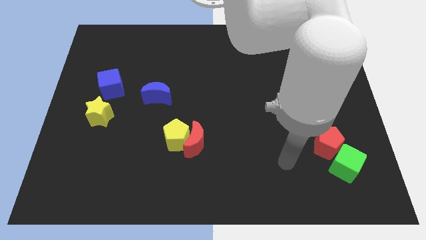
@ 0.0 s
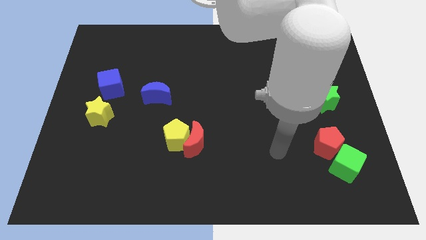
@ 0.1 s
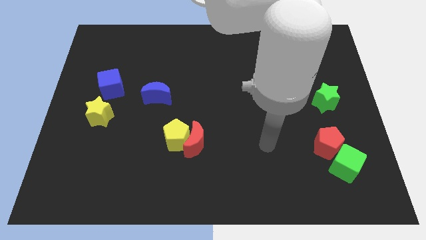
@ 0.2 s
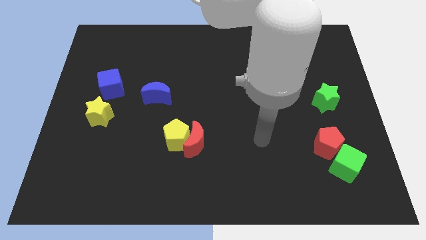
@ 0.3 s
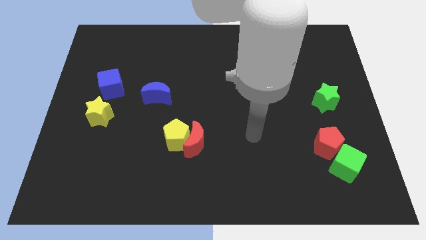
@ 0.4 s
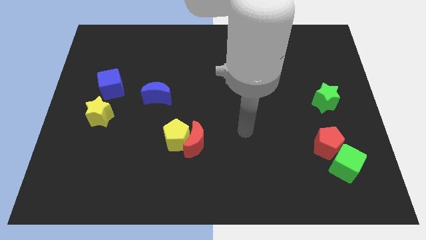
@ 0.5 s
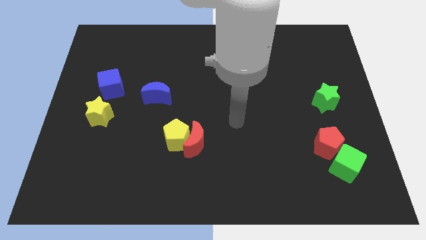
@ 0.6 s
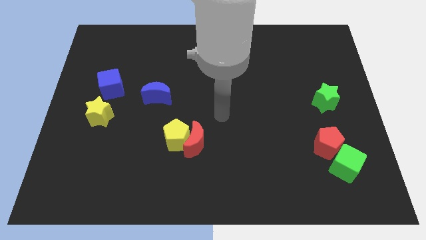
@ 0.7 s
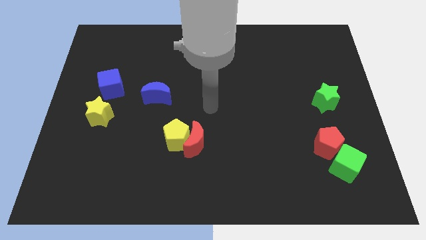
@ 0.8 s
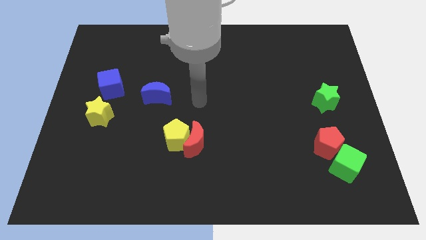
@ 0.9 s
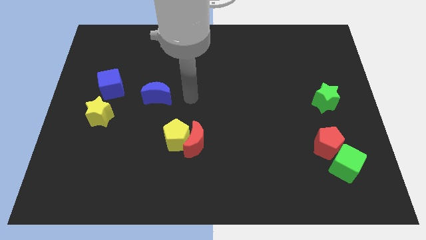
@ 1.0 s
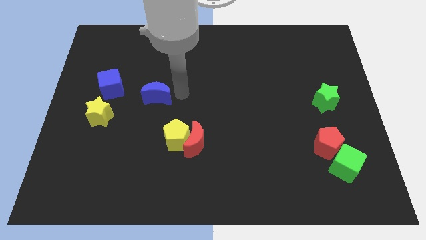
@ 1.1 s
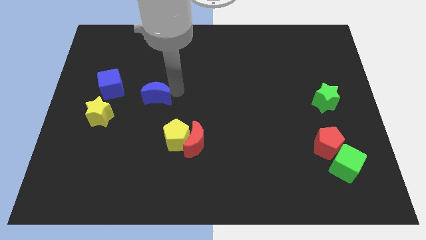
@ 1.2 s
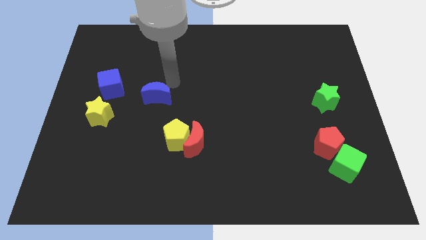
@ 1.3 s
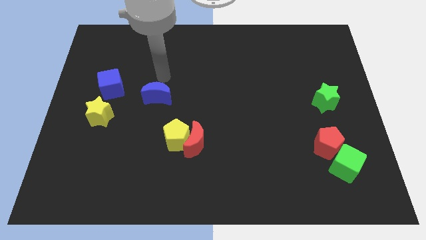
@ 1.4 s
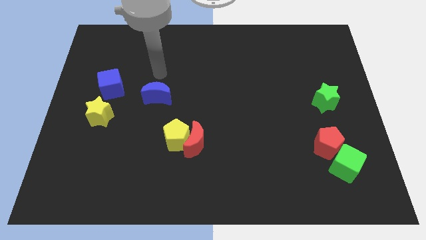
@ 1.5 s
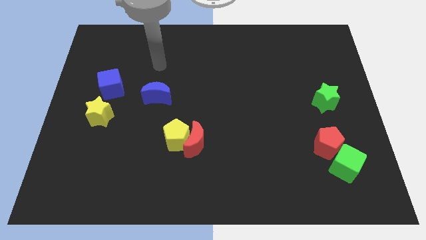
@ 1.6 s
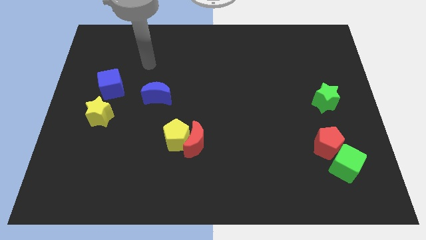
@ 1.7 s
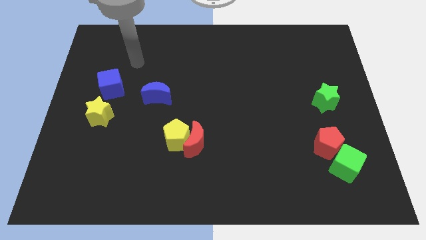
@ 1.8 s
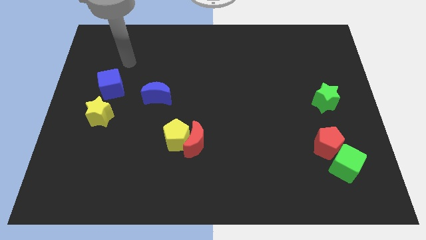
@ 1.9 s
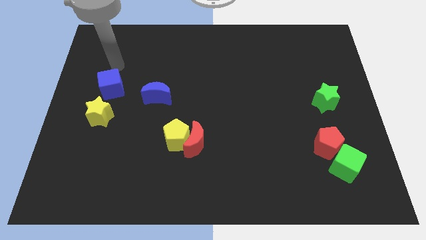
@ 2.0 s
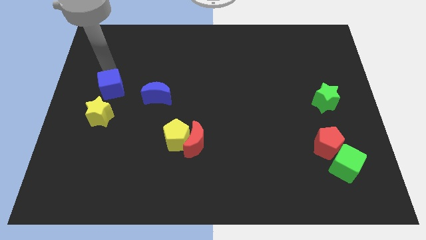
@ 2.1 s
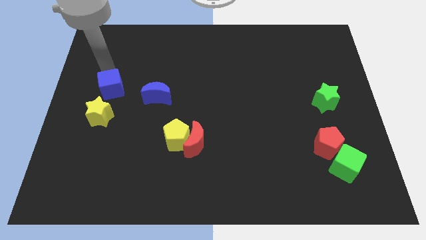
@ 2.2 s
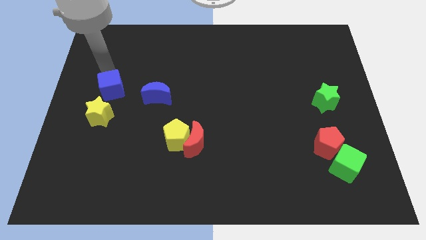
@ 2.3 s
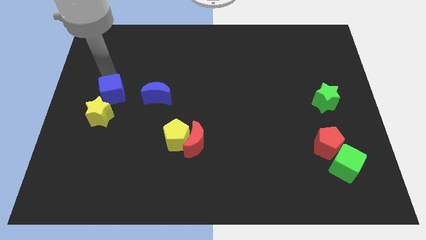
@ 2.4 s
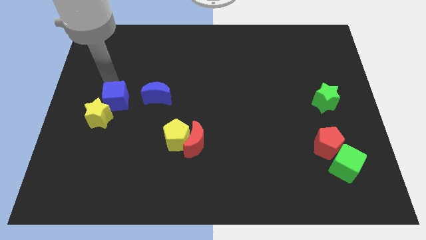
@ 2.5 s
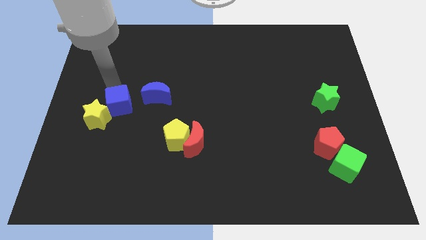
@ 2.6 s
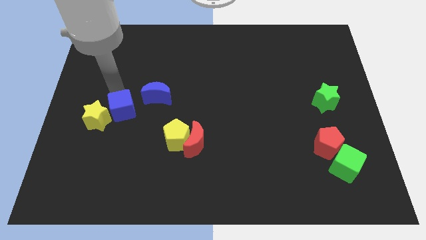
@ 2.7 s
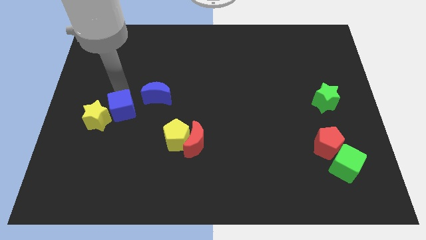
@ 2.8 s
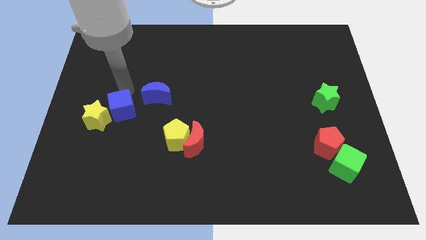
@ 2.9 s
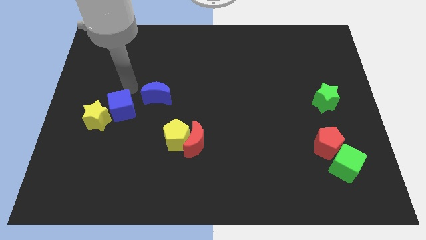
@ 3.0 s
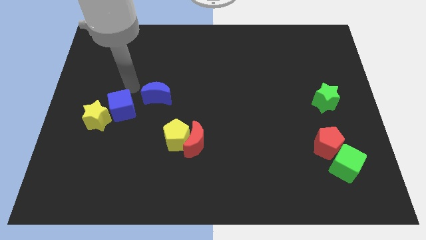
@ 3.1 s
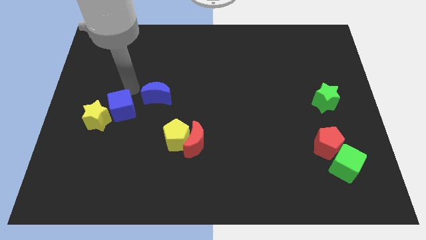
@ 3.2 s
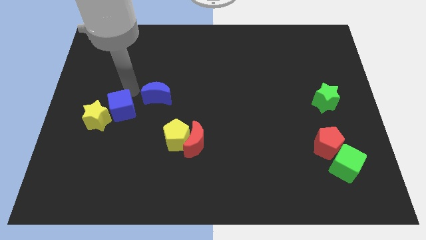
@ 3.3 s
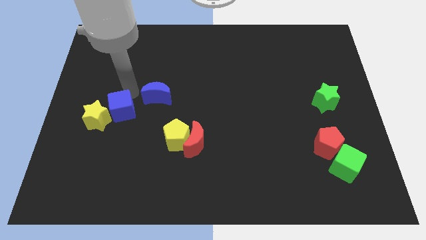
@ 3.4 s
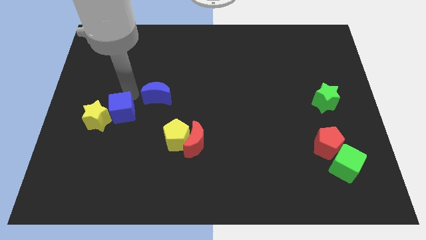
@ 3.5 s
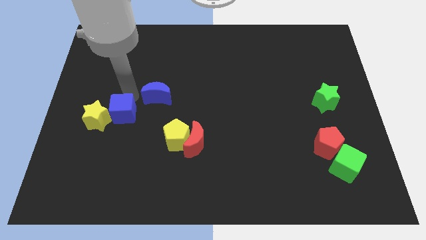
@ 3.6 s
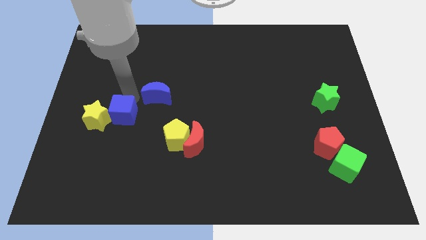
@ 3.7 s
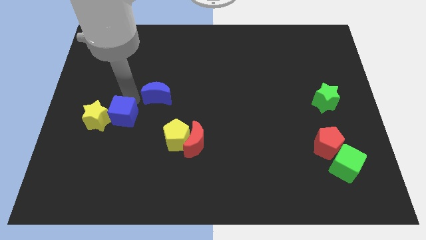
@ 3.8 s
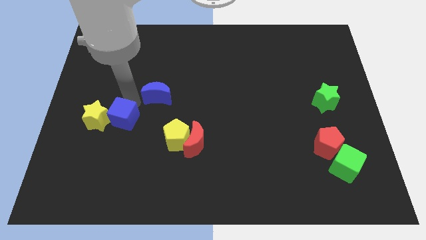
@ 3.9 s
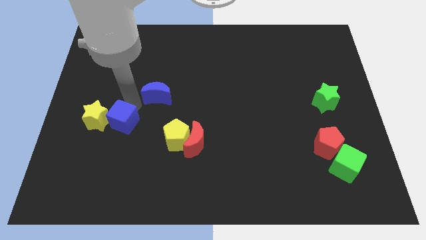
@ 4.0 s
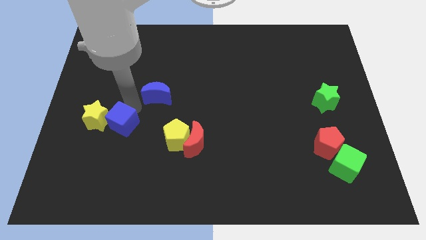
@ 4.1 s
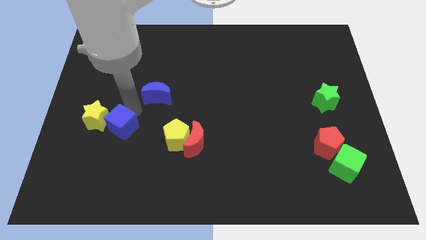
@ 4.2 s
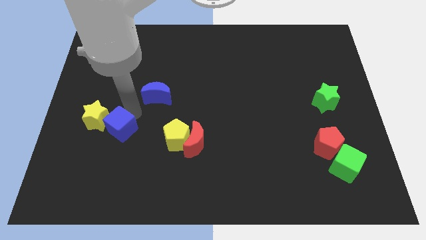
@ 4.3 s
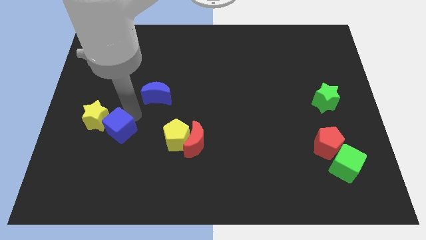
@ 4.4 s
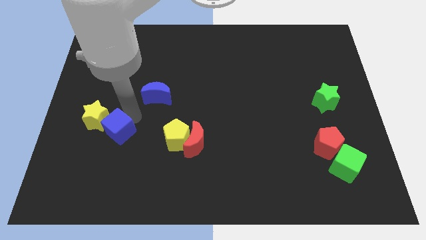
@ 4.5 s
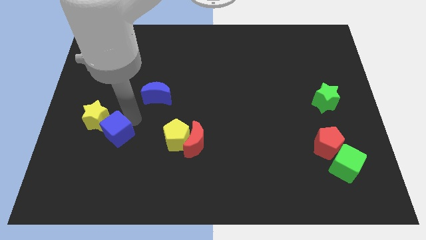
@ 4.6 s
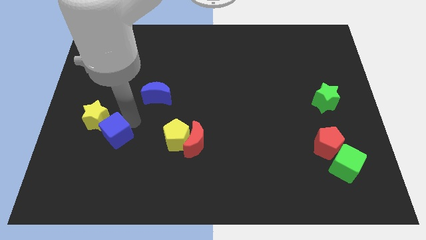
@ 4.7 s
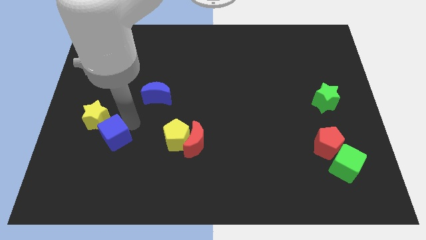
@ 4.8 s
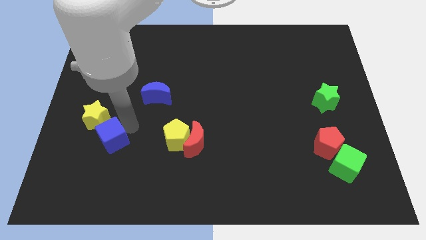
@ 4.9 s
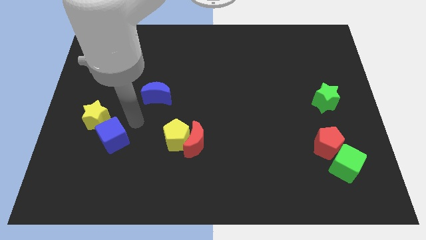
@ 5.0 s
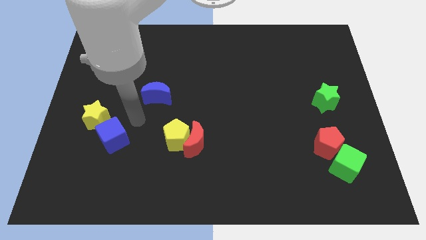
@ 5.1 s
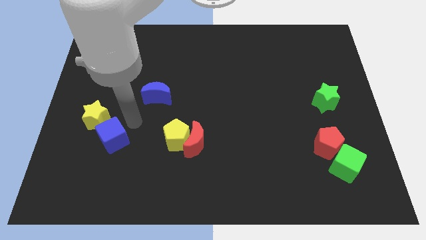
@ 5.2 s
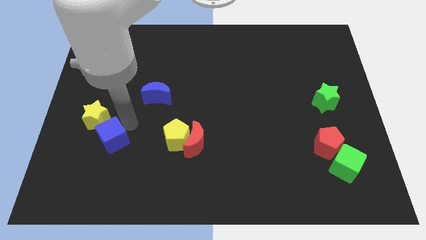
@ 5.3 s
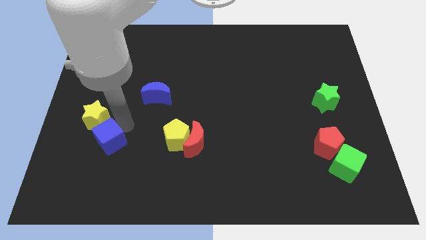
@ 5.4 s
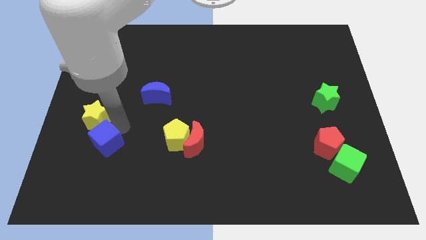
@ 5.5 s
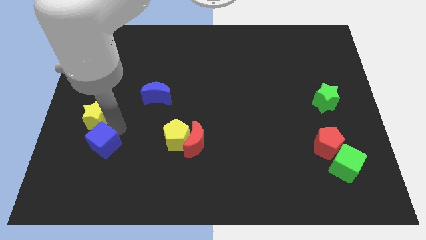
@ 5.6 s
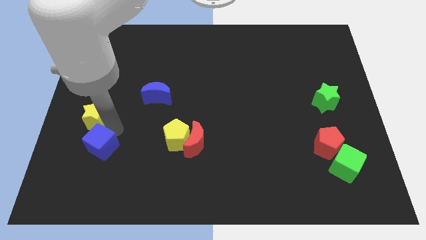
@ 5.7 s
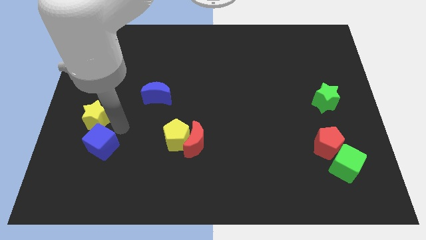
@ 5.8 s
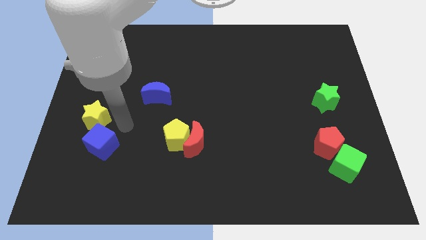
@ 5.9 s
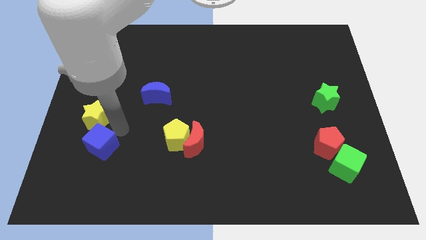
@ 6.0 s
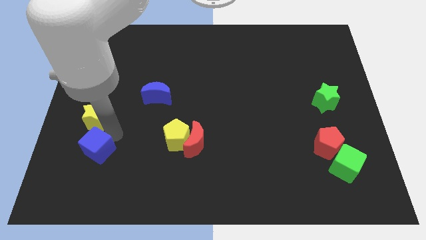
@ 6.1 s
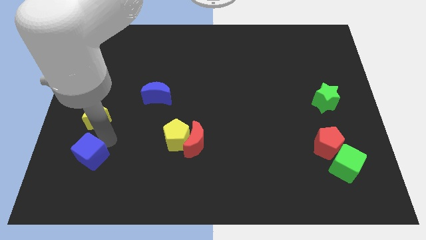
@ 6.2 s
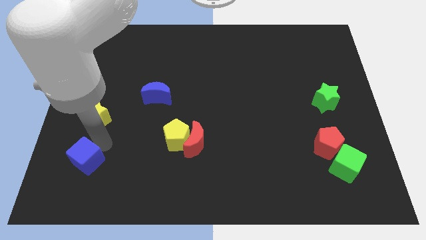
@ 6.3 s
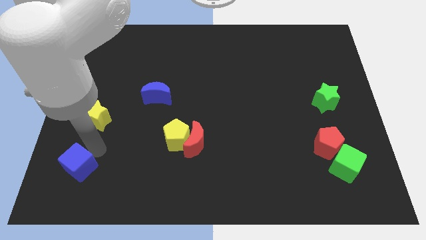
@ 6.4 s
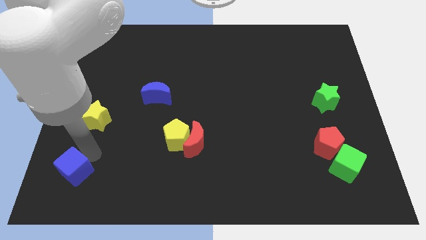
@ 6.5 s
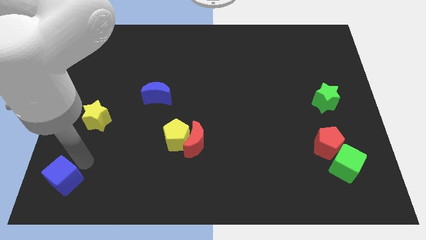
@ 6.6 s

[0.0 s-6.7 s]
slide the blue cube to the bottom left corner
